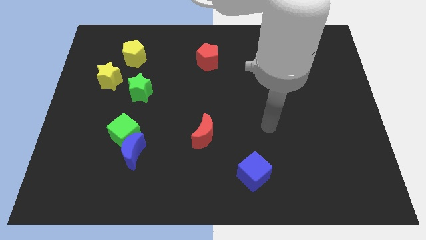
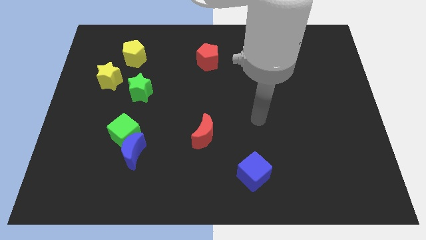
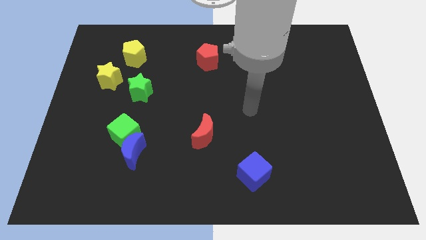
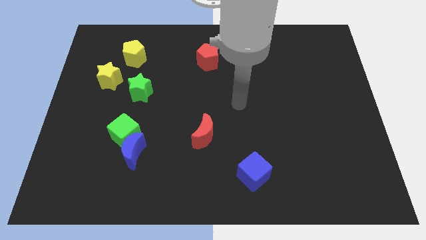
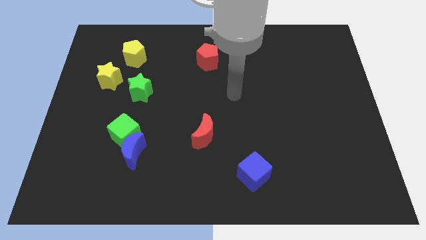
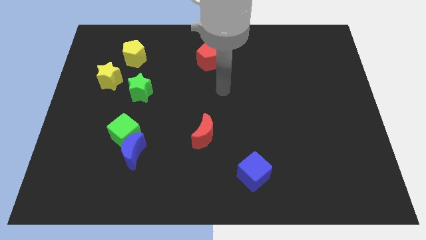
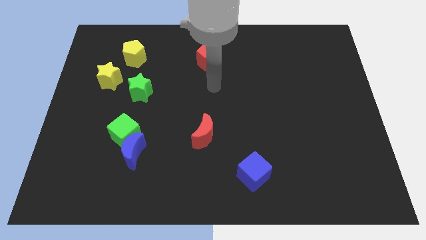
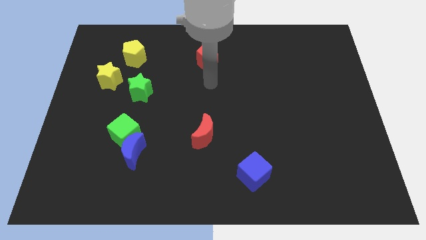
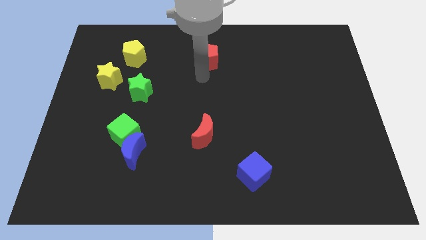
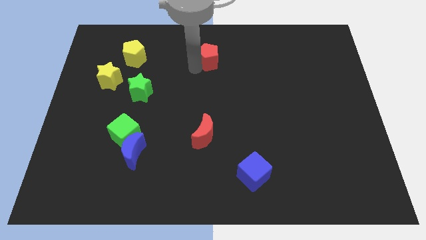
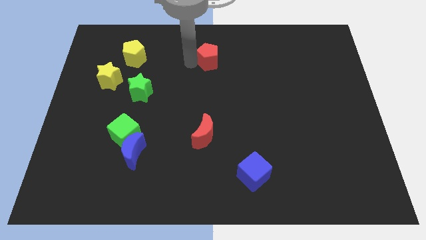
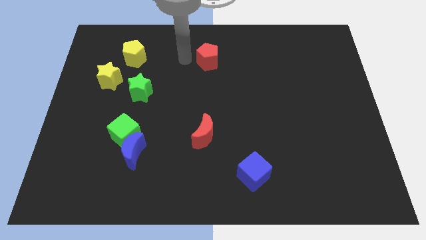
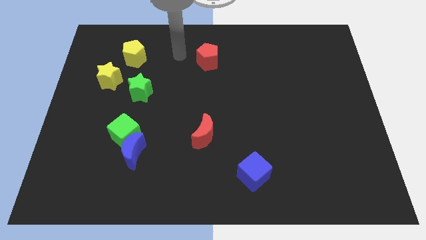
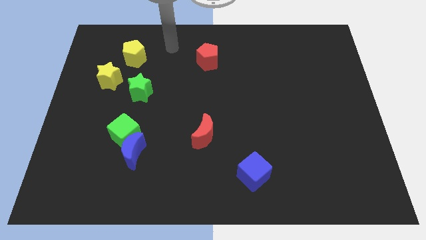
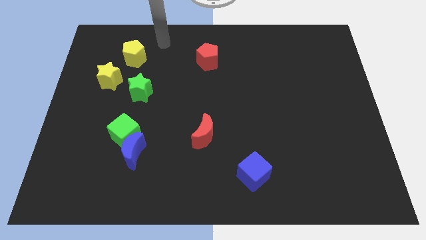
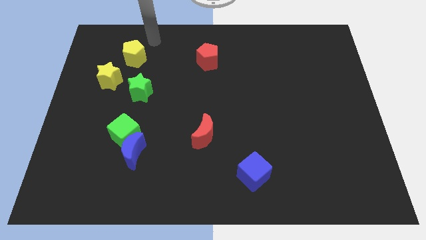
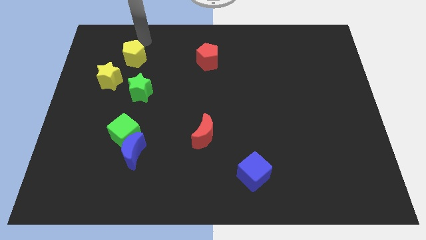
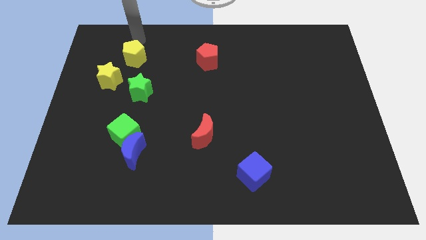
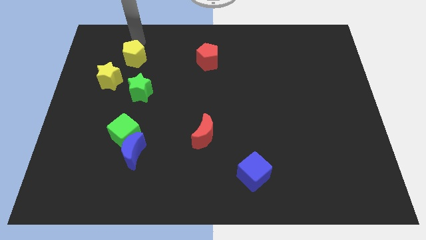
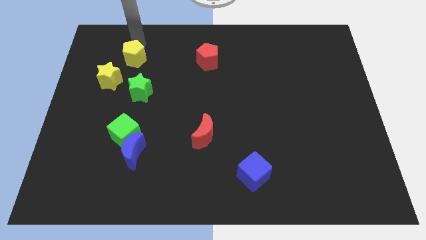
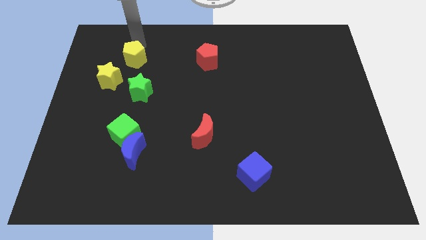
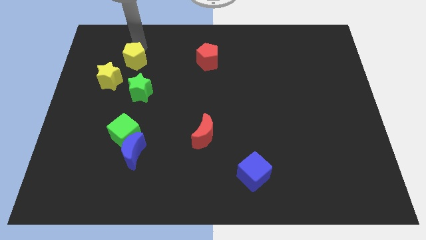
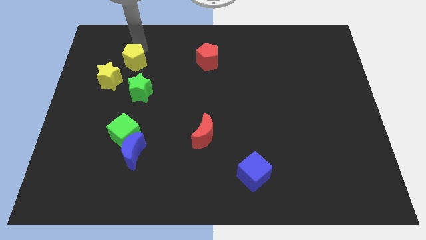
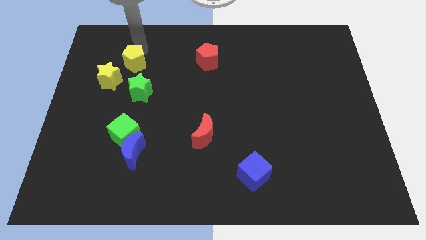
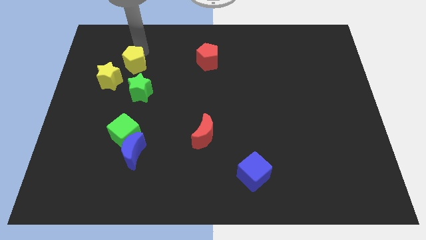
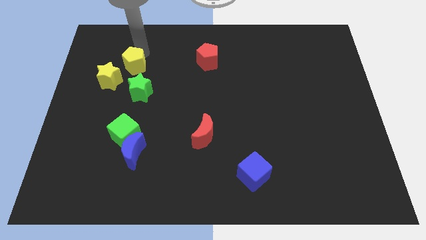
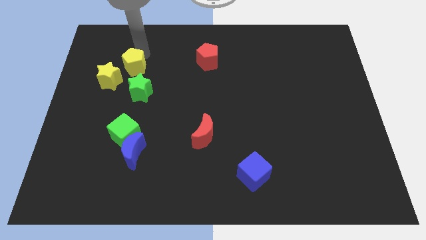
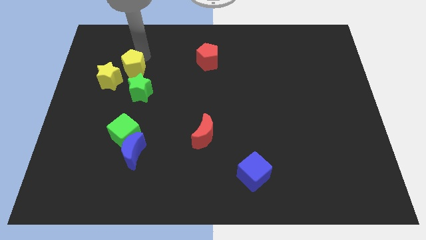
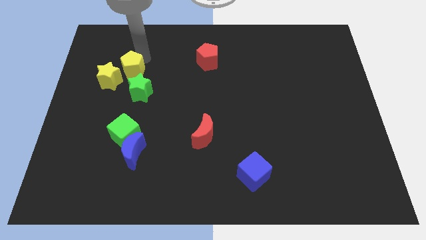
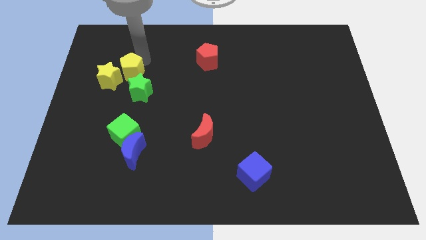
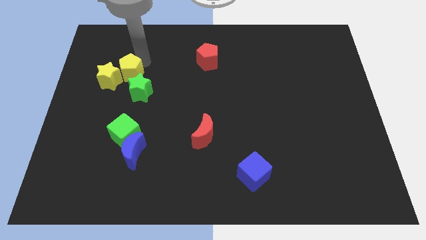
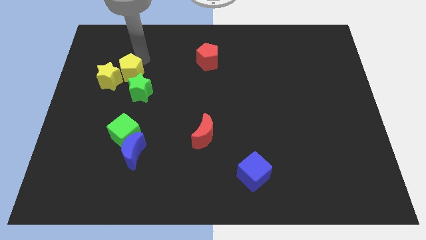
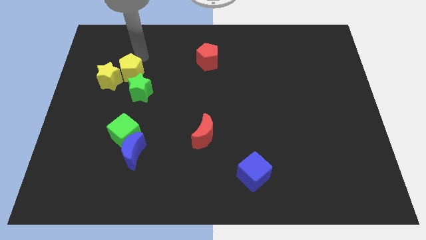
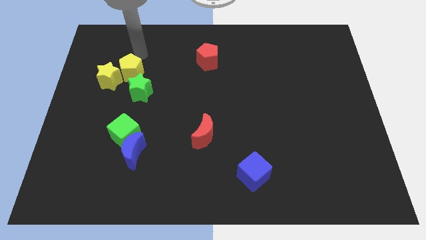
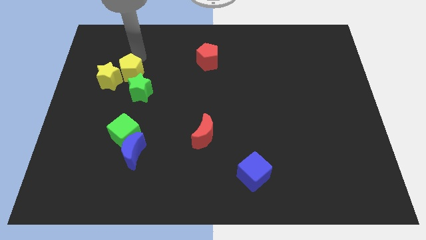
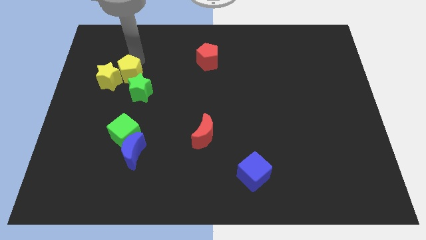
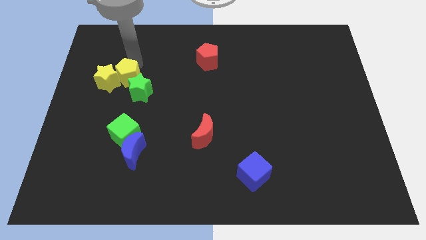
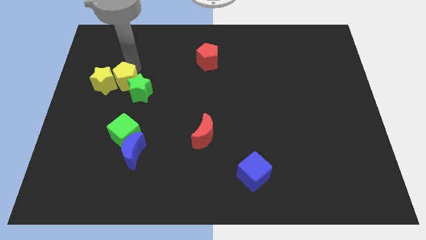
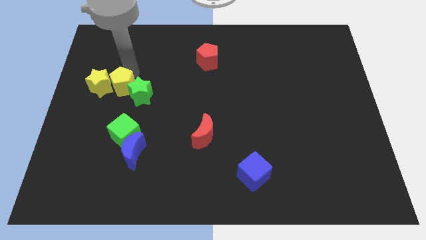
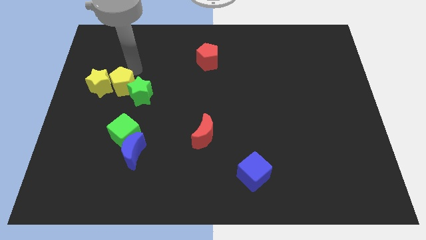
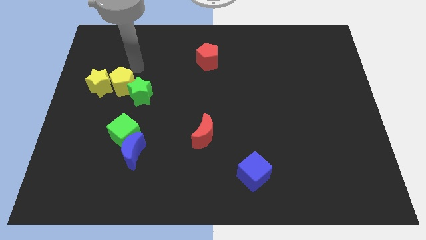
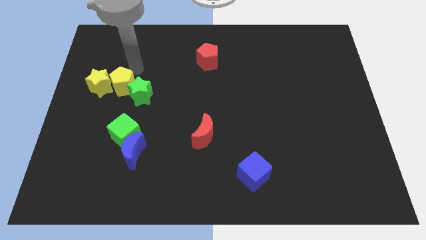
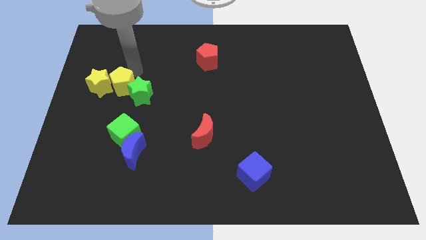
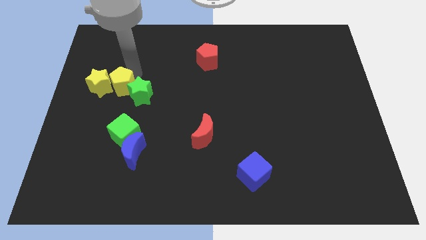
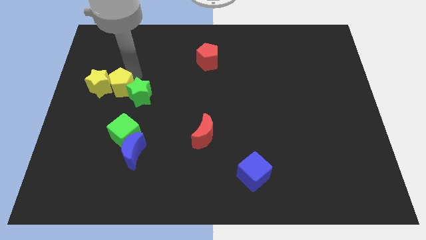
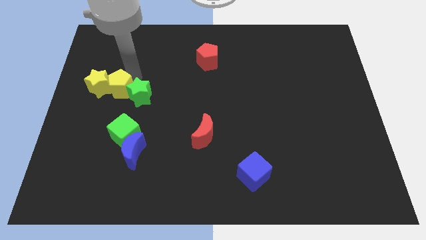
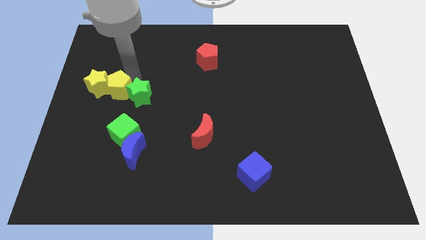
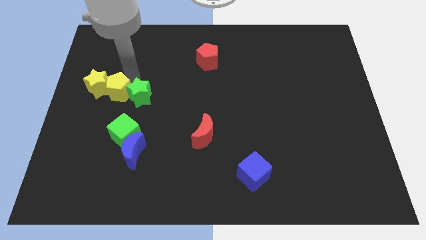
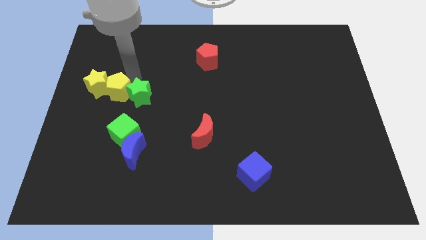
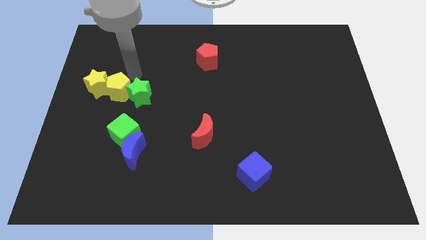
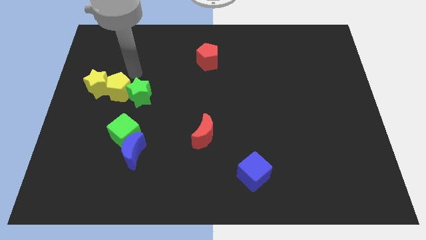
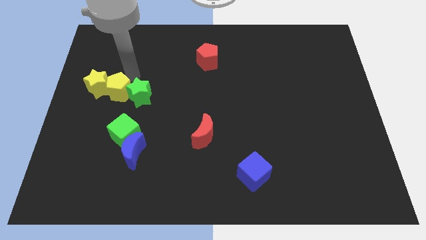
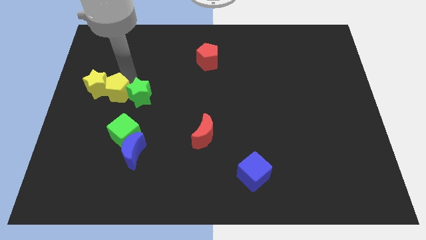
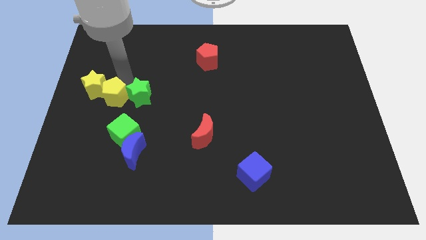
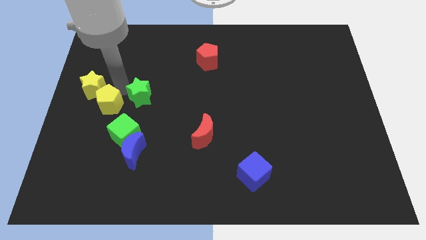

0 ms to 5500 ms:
put the yellow pentagon to the bottom of the yellow star

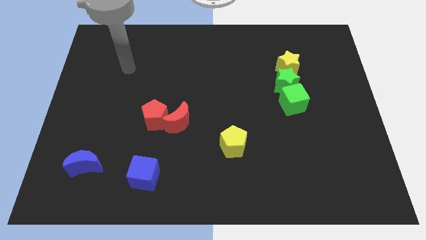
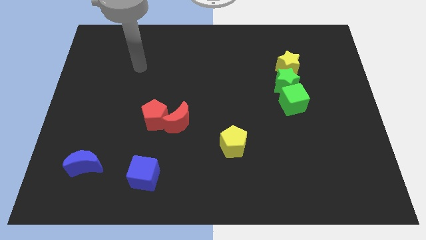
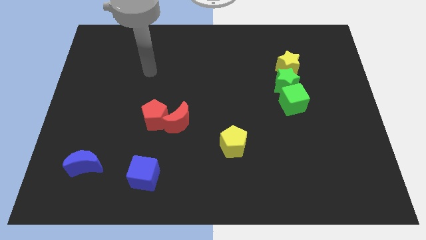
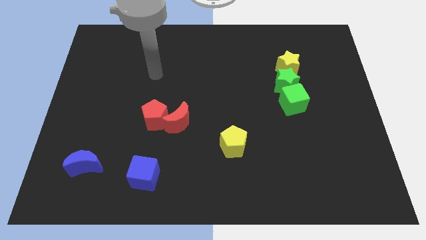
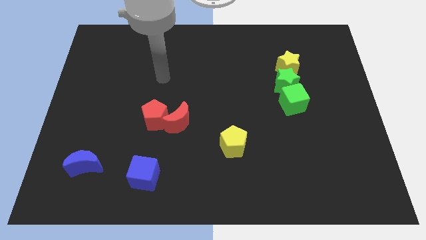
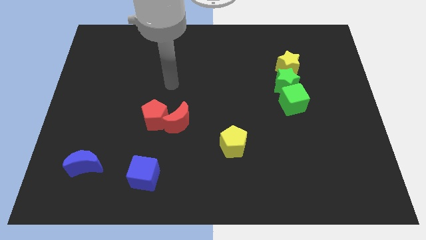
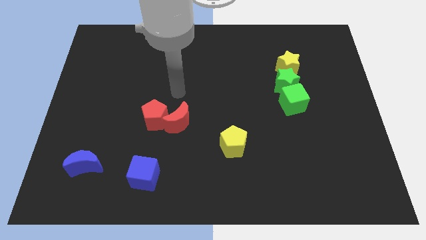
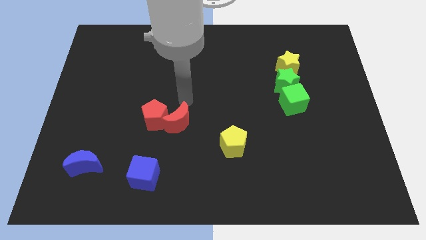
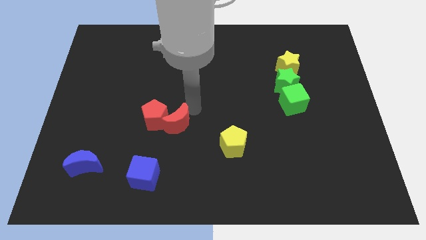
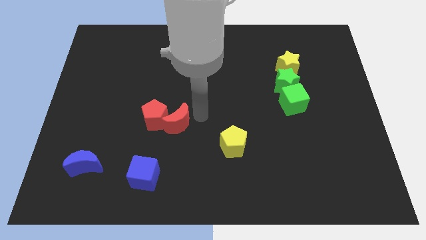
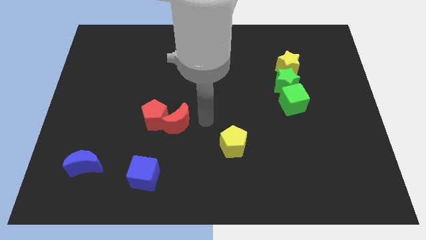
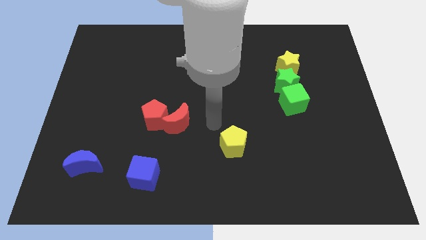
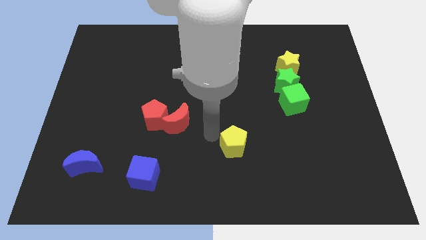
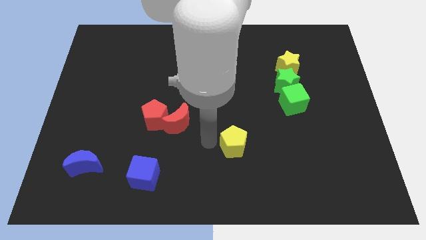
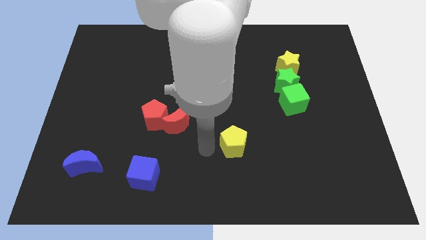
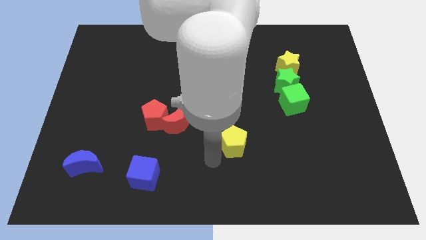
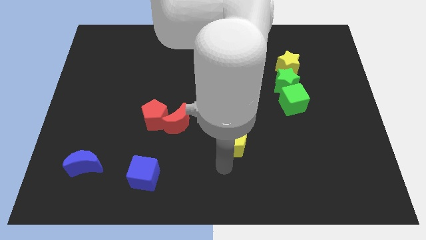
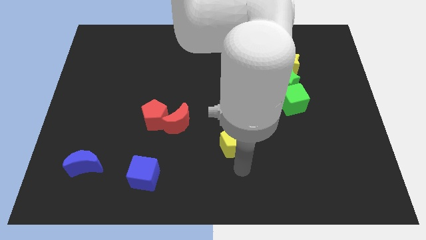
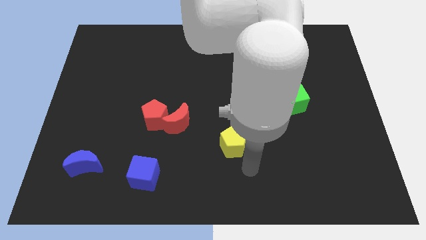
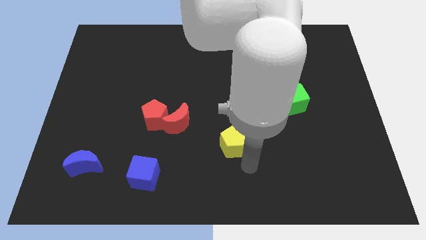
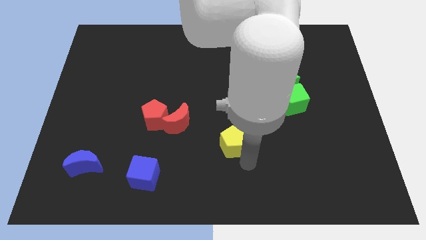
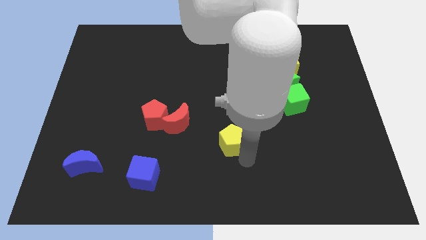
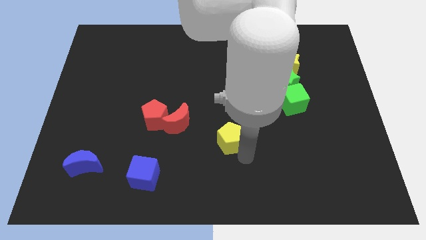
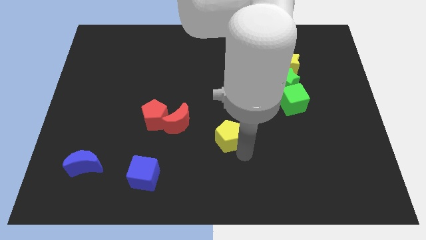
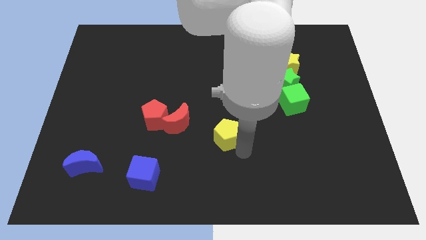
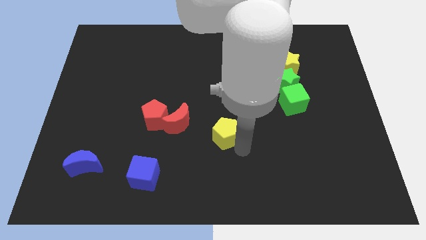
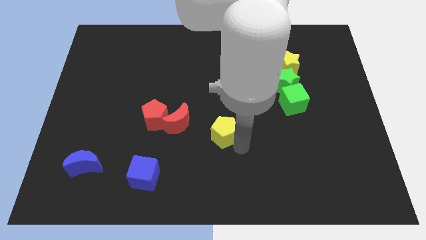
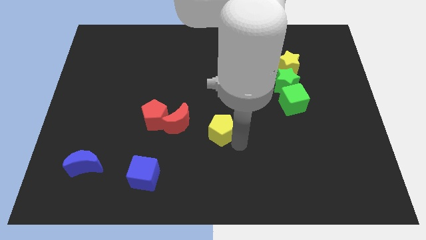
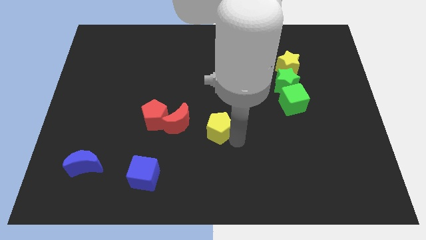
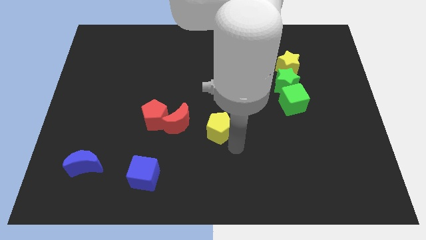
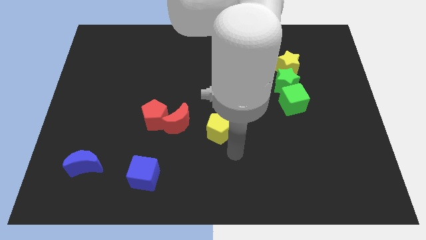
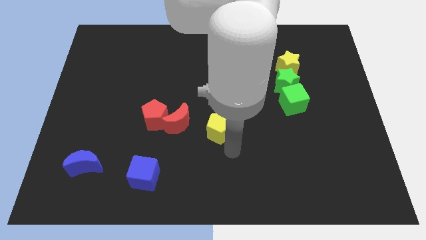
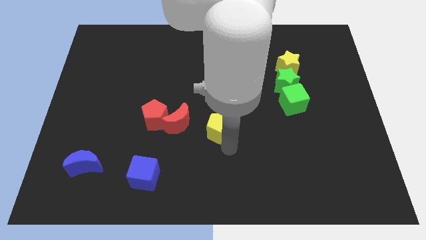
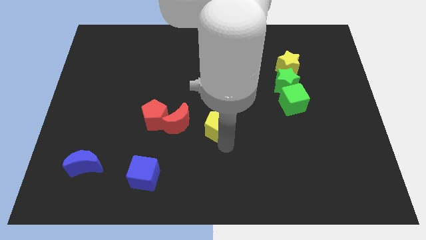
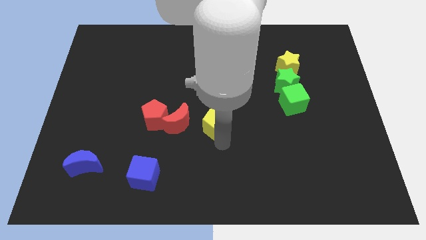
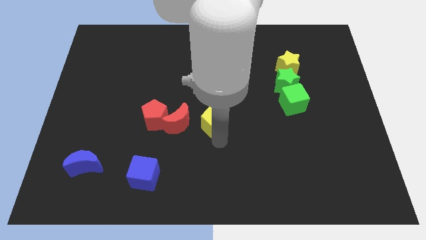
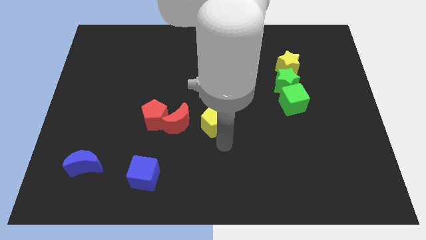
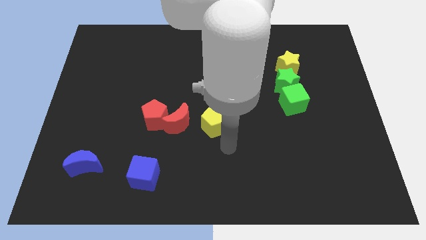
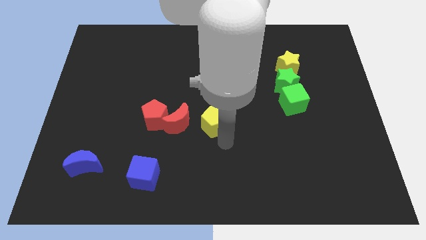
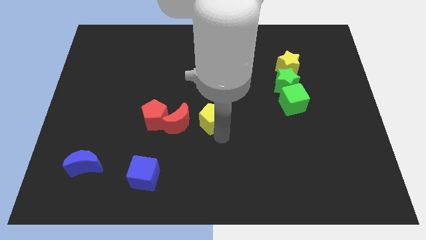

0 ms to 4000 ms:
slide the yellow pentagon diagonally up and to the right of the red moon
